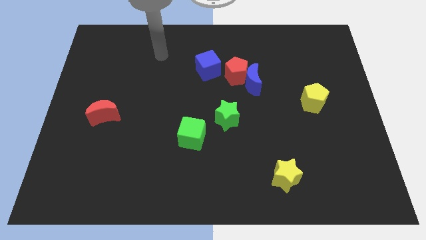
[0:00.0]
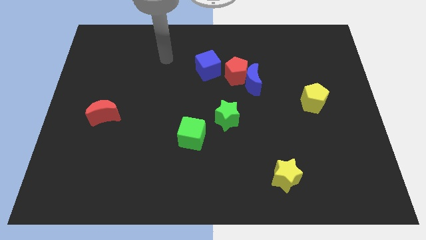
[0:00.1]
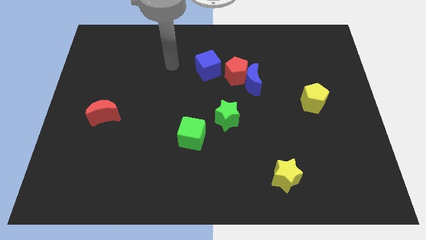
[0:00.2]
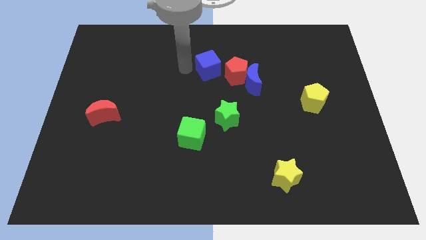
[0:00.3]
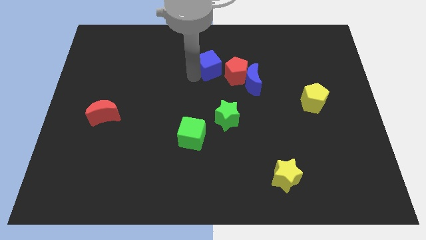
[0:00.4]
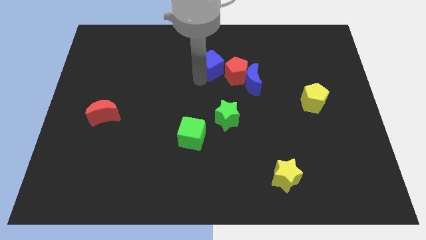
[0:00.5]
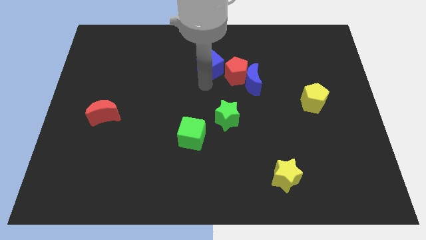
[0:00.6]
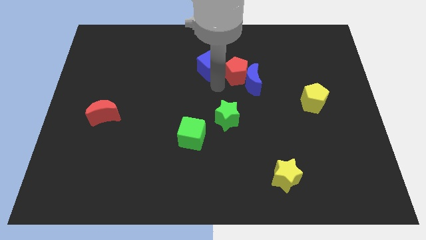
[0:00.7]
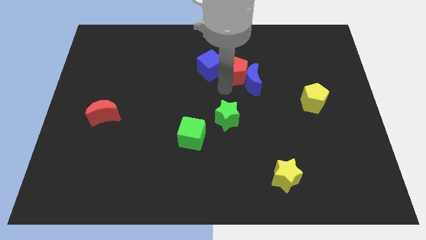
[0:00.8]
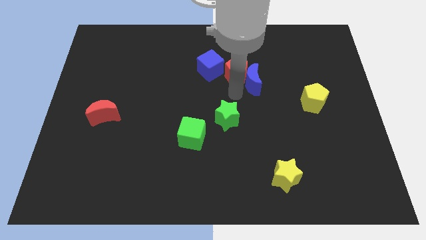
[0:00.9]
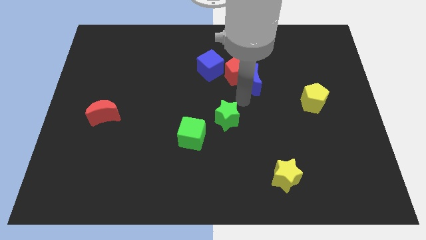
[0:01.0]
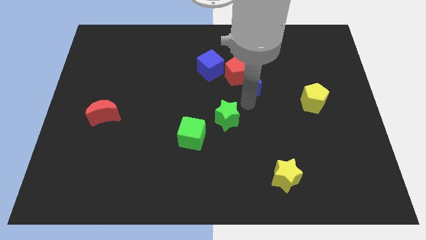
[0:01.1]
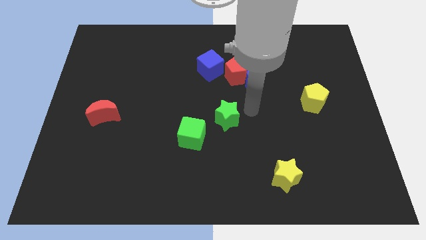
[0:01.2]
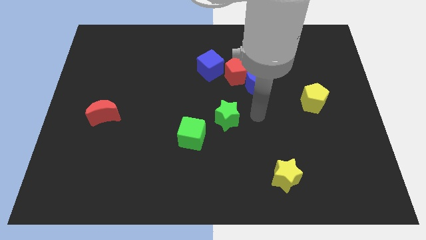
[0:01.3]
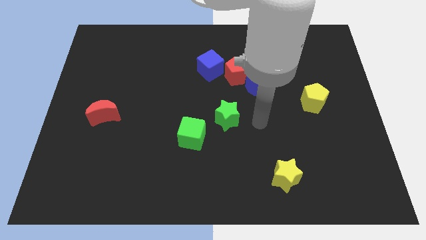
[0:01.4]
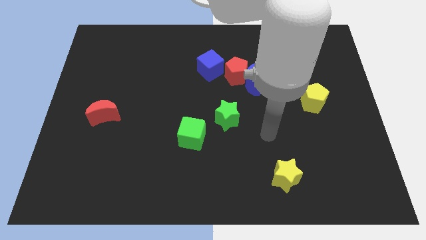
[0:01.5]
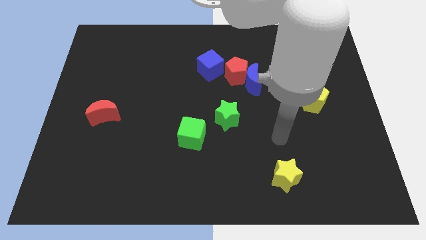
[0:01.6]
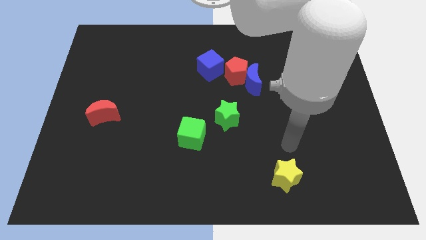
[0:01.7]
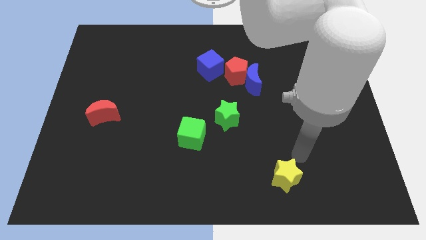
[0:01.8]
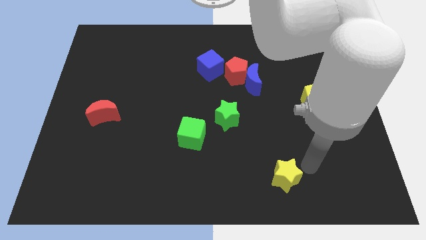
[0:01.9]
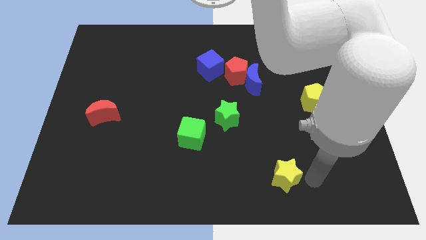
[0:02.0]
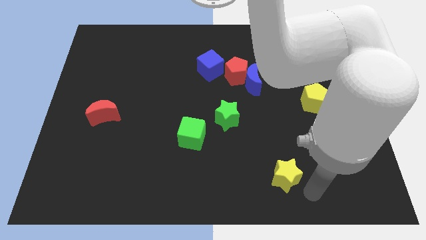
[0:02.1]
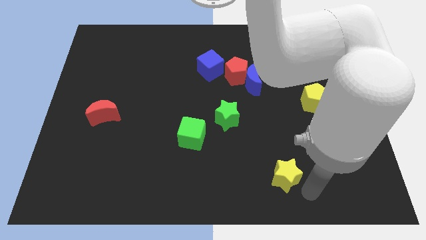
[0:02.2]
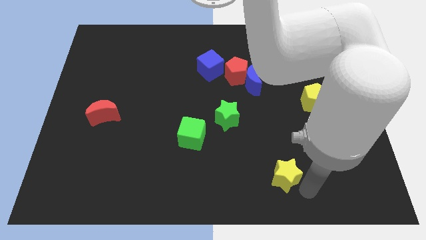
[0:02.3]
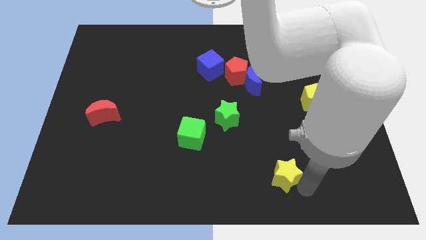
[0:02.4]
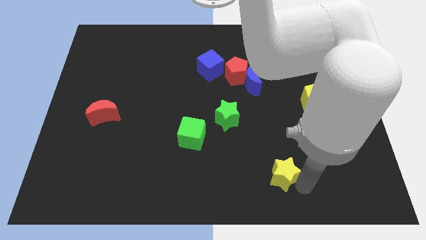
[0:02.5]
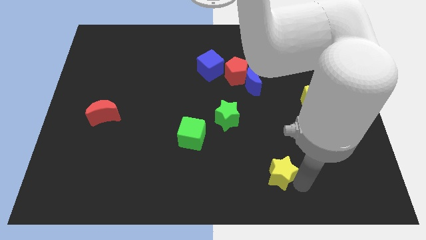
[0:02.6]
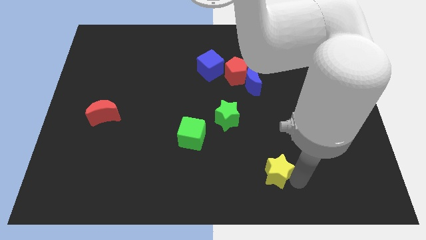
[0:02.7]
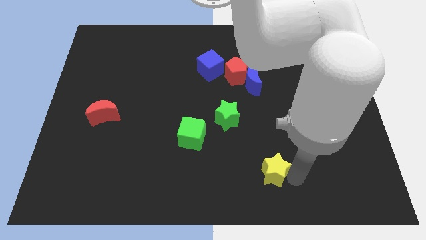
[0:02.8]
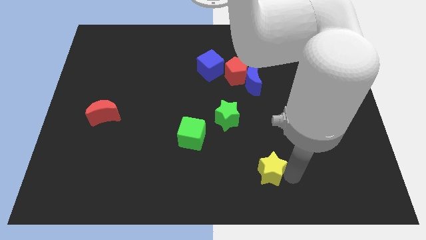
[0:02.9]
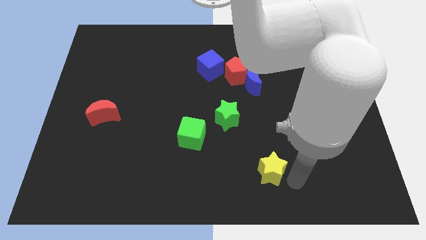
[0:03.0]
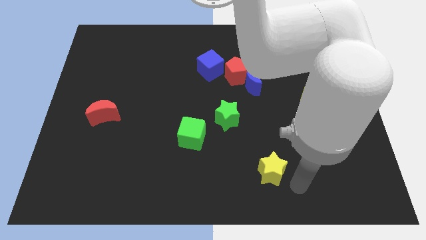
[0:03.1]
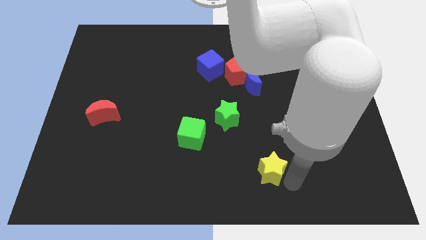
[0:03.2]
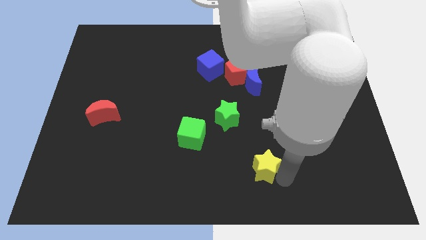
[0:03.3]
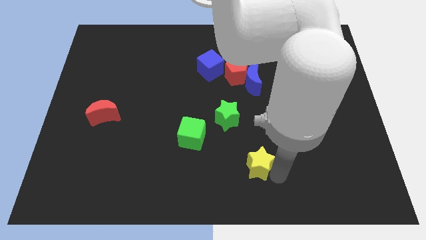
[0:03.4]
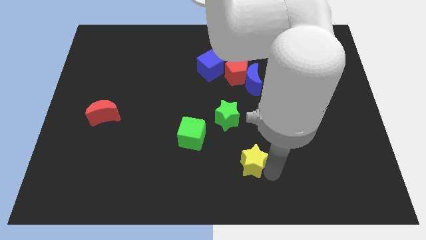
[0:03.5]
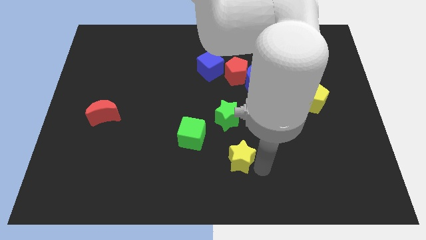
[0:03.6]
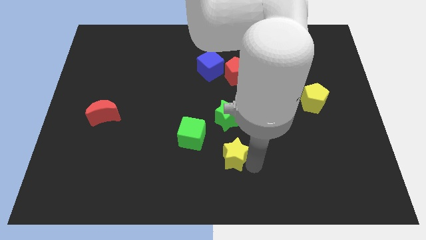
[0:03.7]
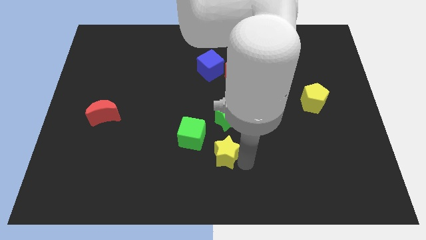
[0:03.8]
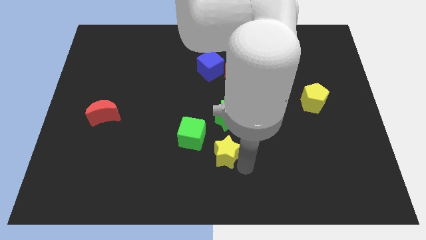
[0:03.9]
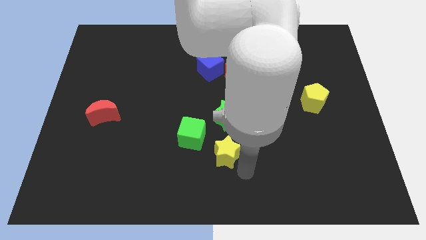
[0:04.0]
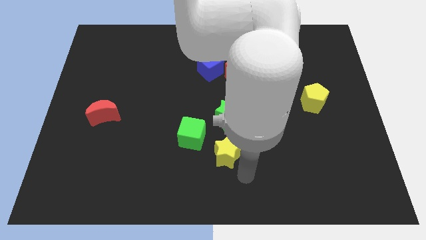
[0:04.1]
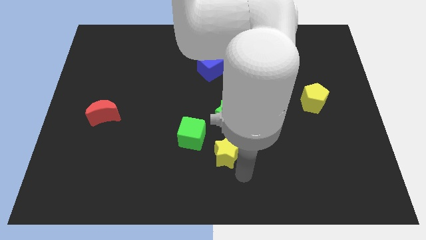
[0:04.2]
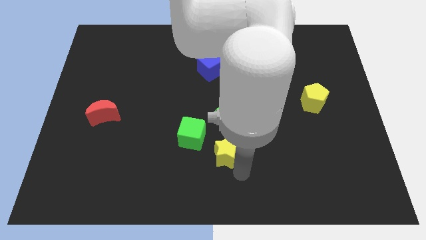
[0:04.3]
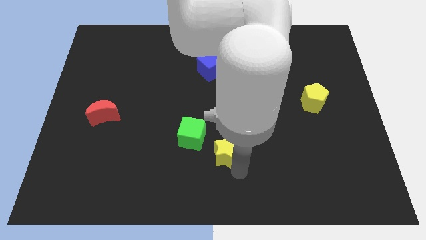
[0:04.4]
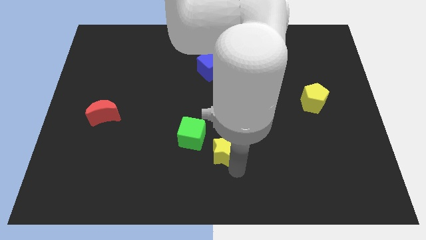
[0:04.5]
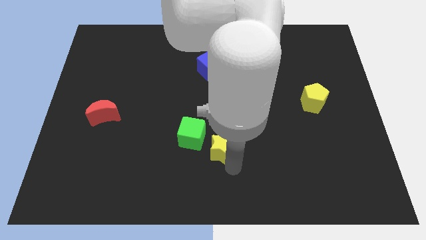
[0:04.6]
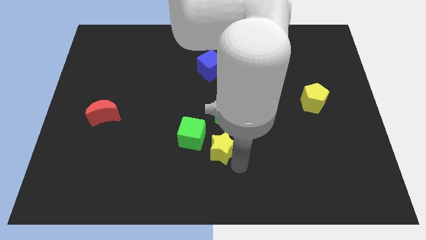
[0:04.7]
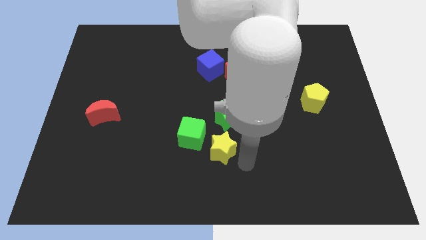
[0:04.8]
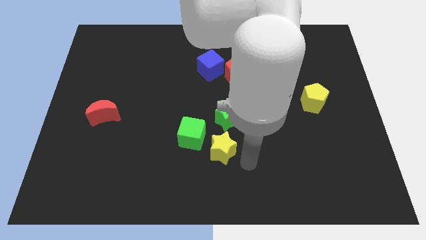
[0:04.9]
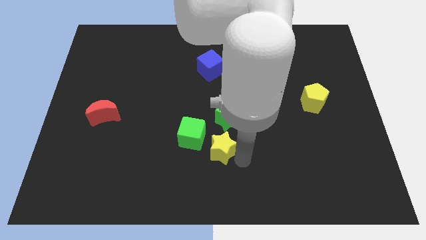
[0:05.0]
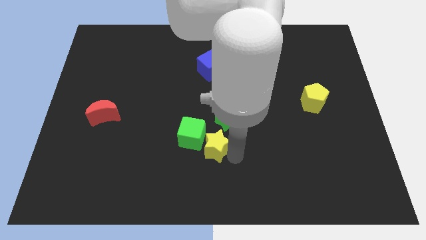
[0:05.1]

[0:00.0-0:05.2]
put the yellow star next to the green cube

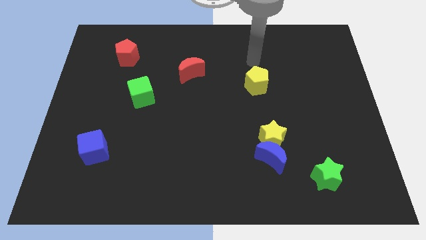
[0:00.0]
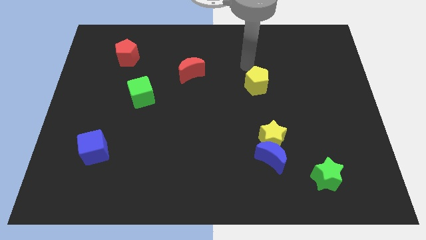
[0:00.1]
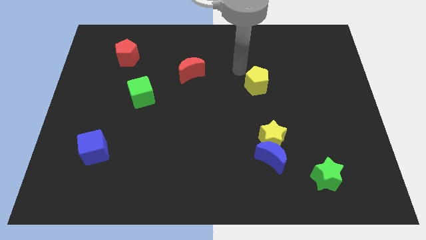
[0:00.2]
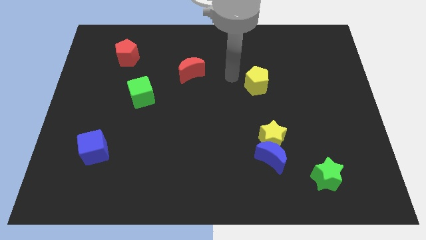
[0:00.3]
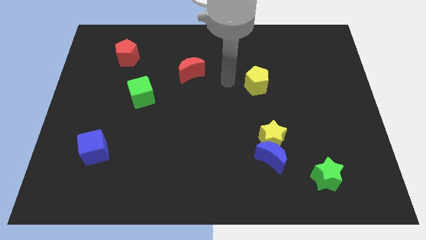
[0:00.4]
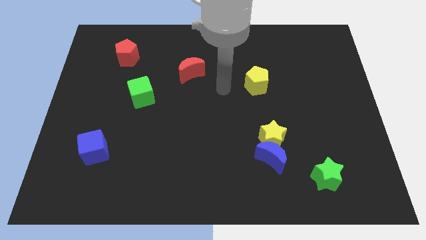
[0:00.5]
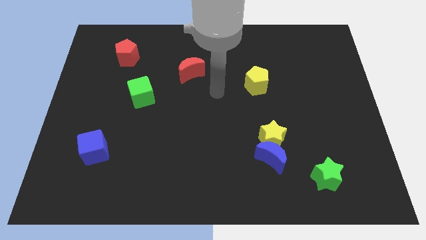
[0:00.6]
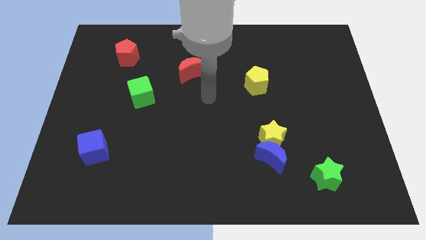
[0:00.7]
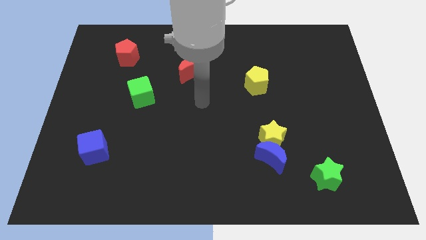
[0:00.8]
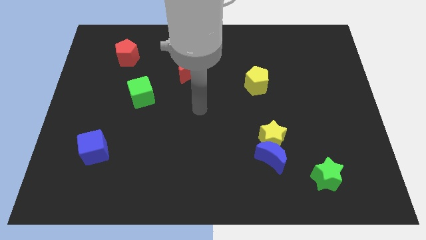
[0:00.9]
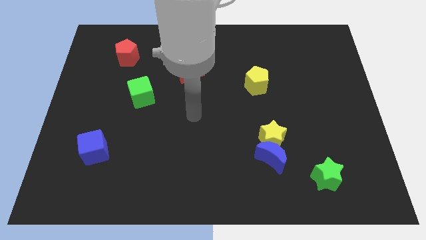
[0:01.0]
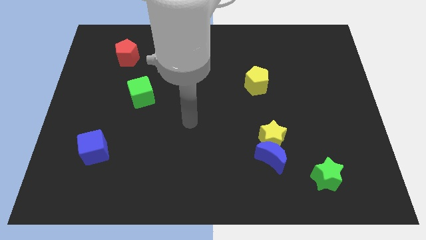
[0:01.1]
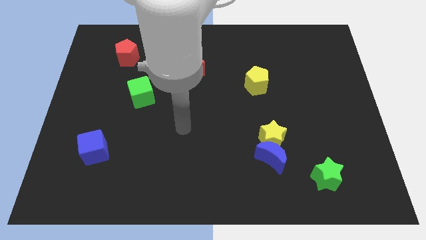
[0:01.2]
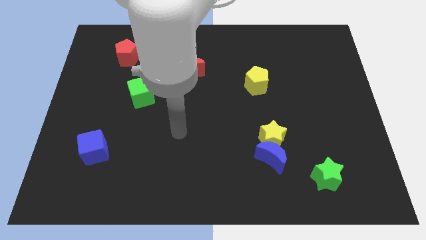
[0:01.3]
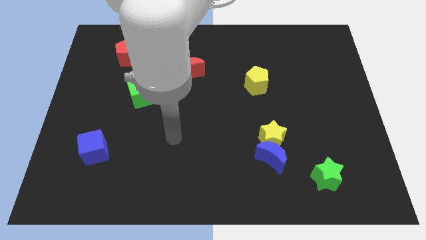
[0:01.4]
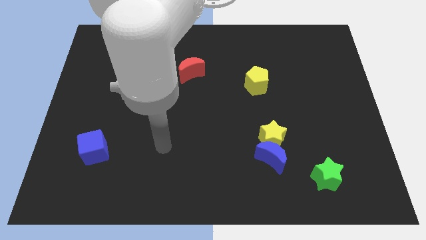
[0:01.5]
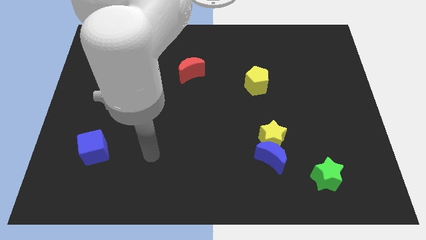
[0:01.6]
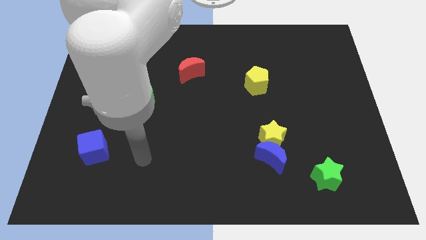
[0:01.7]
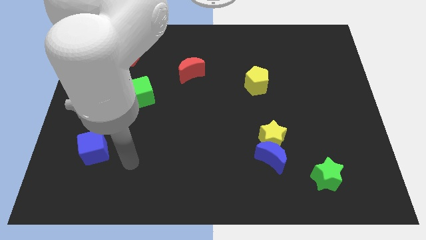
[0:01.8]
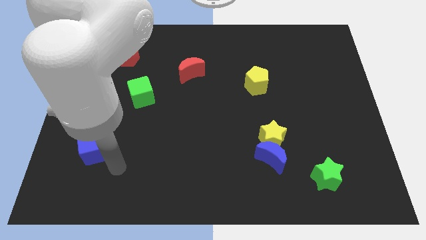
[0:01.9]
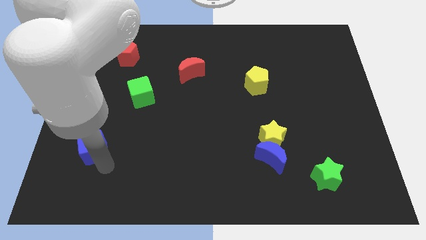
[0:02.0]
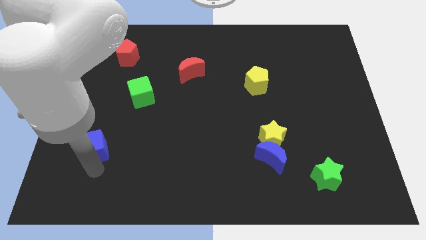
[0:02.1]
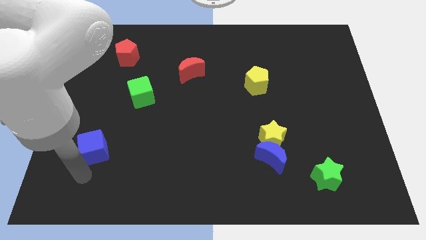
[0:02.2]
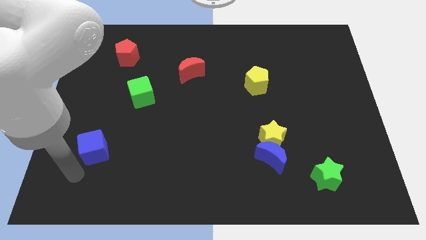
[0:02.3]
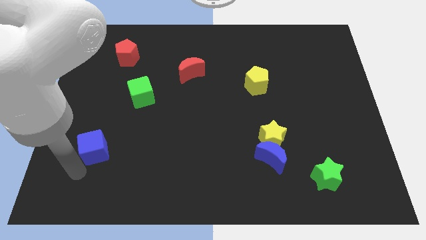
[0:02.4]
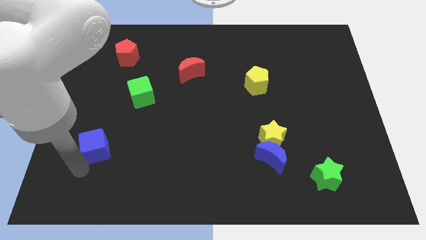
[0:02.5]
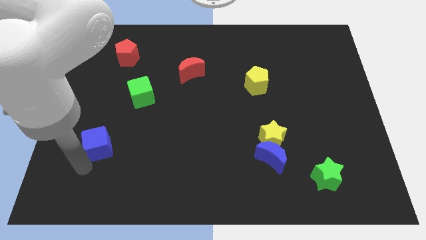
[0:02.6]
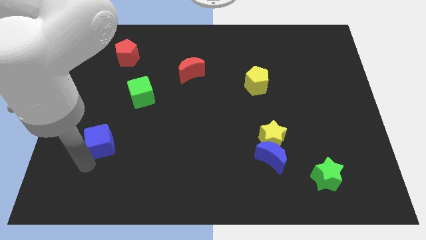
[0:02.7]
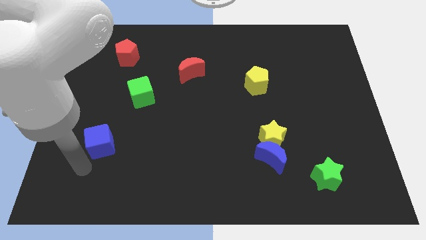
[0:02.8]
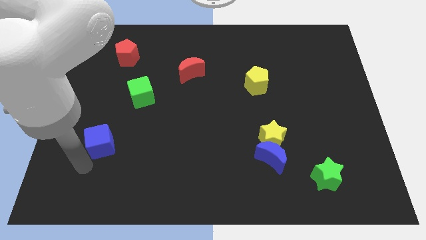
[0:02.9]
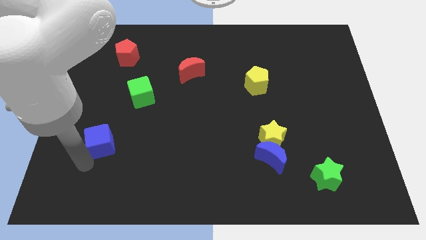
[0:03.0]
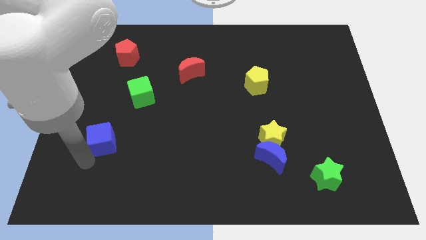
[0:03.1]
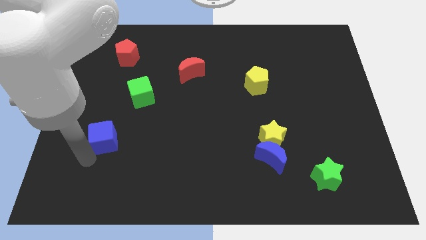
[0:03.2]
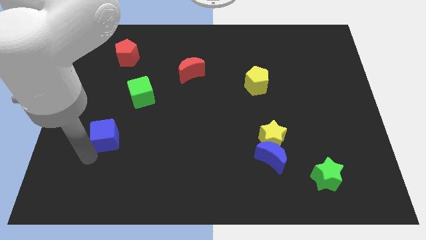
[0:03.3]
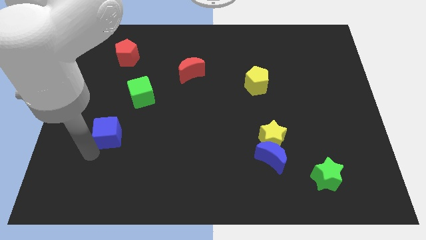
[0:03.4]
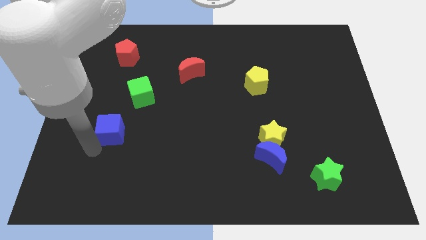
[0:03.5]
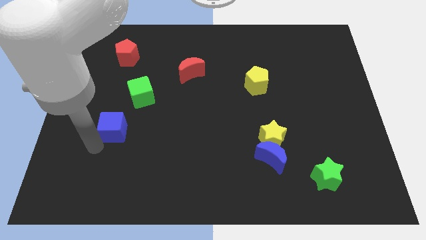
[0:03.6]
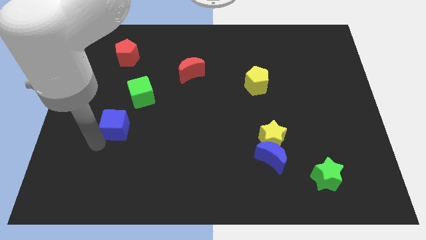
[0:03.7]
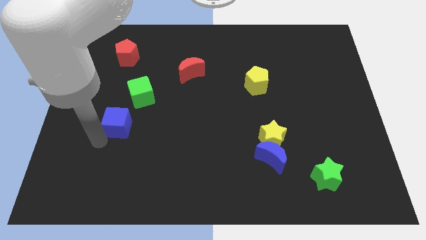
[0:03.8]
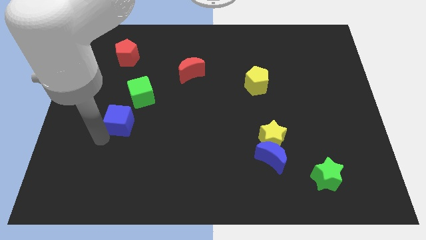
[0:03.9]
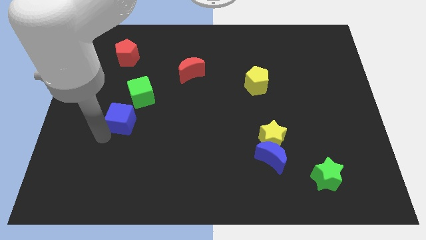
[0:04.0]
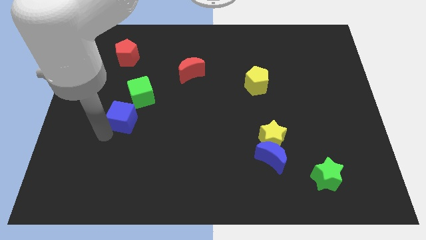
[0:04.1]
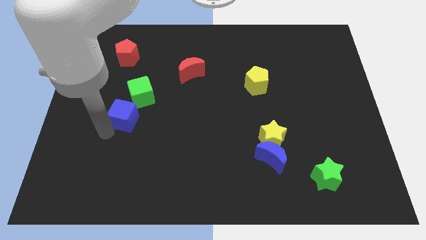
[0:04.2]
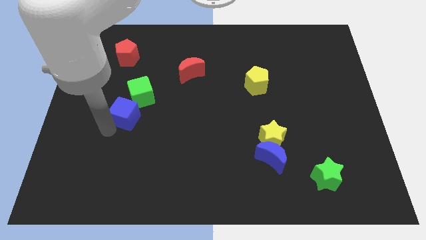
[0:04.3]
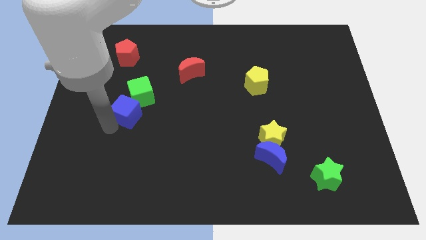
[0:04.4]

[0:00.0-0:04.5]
push the blue cube to the green cube
